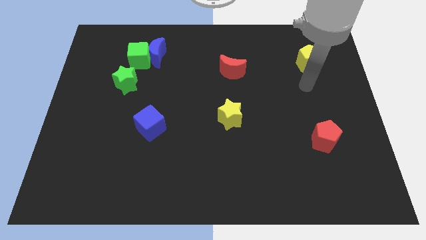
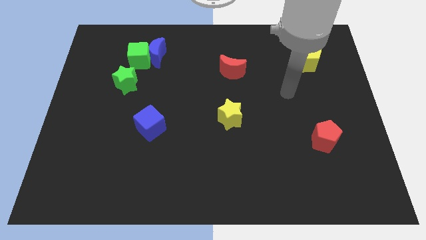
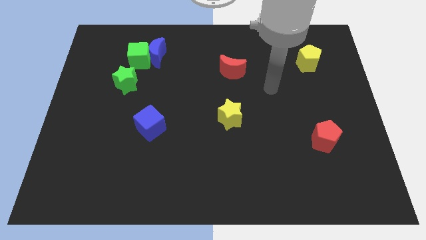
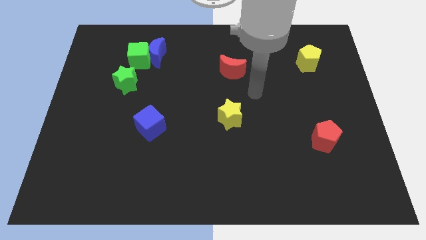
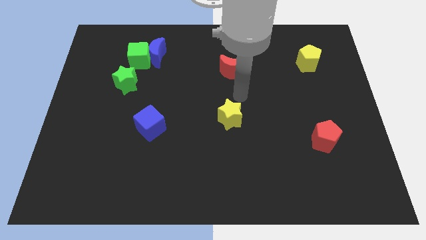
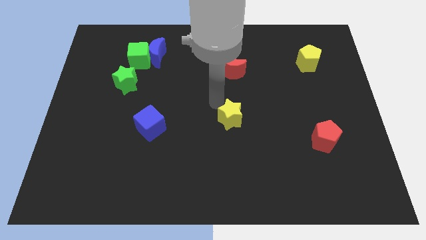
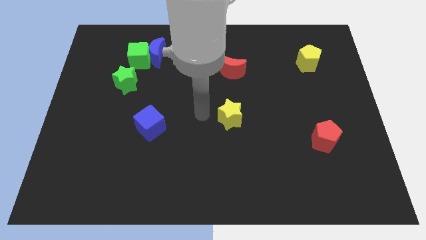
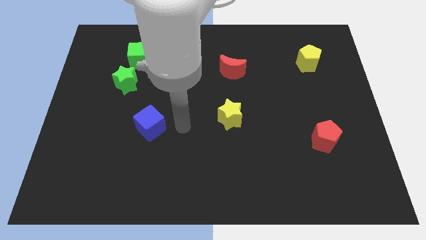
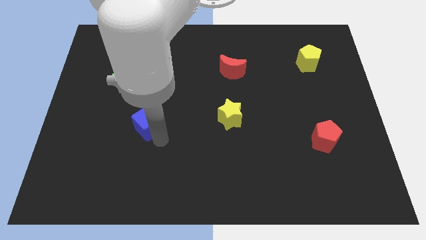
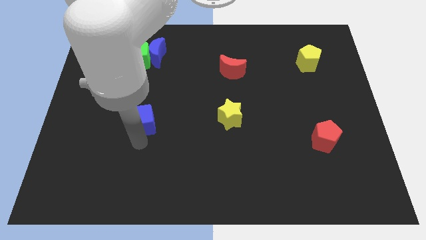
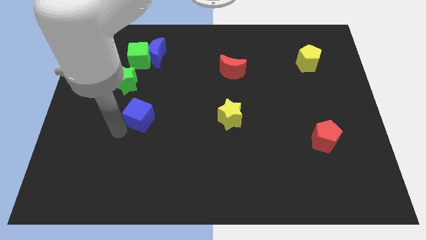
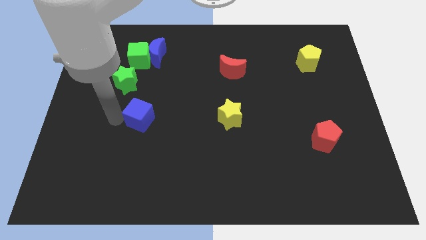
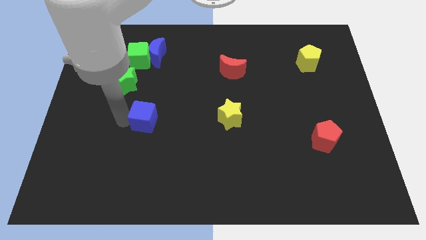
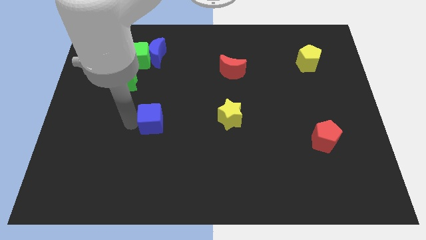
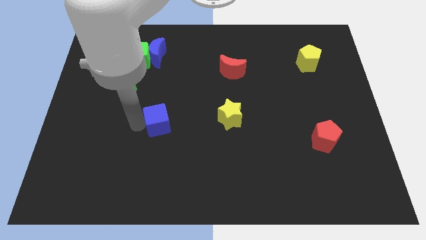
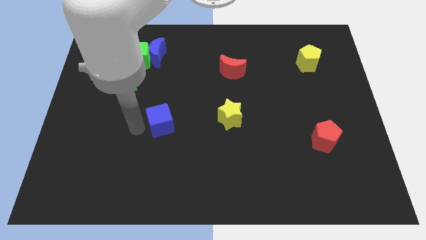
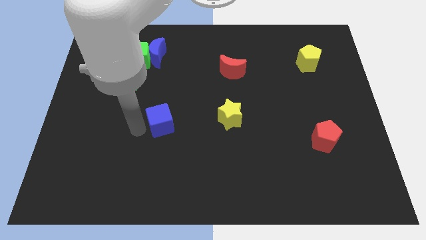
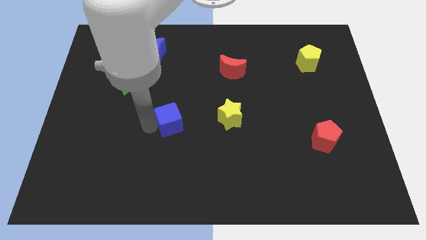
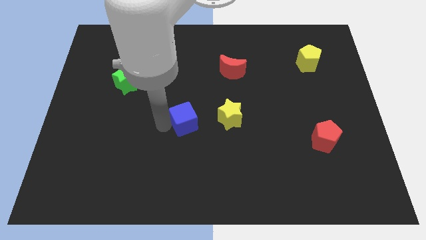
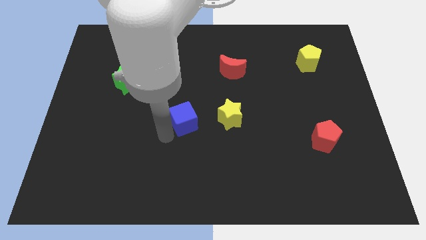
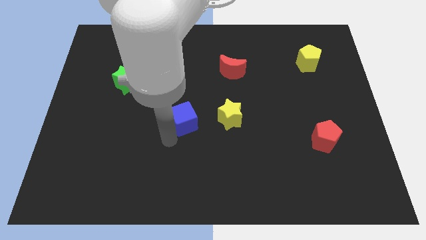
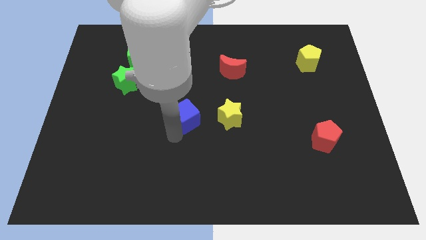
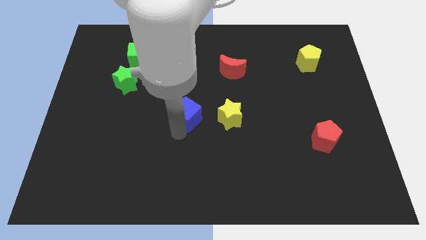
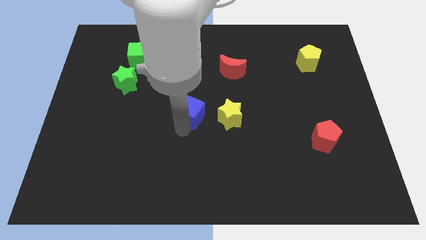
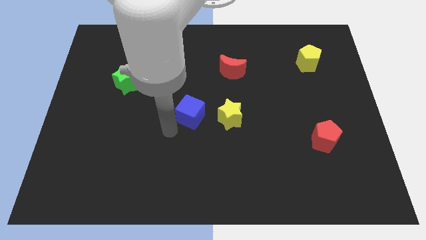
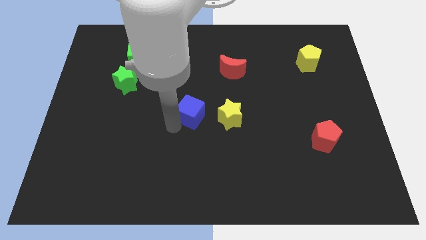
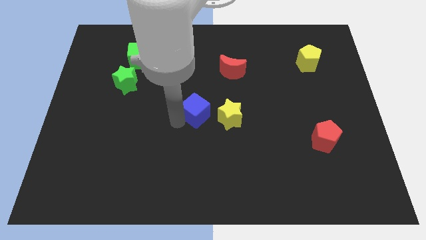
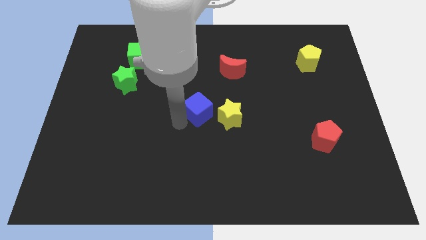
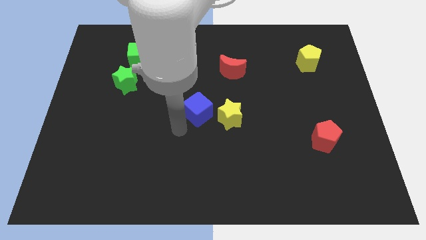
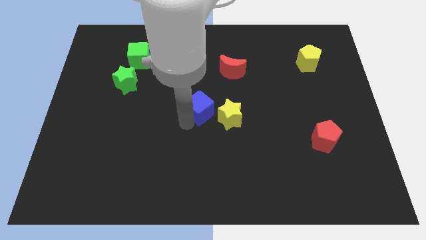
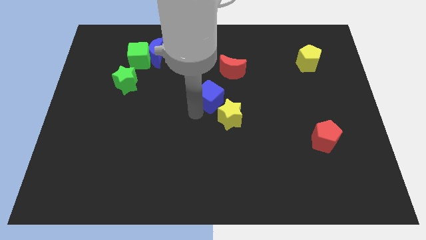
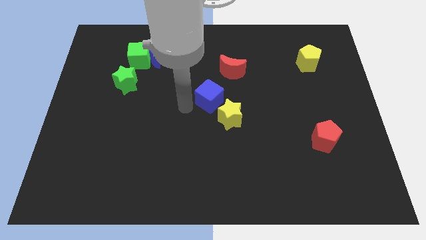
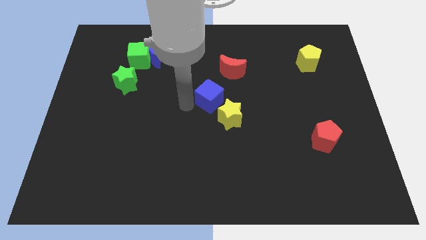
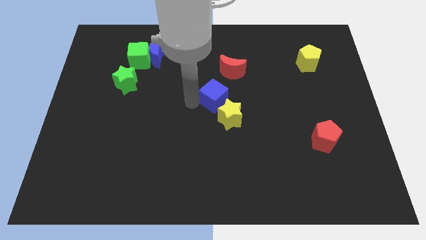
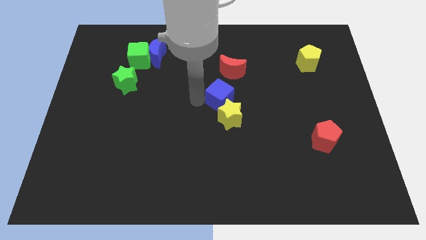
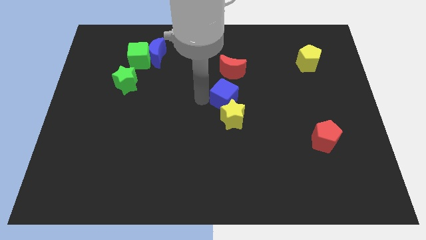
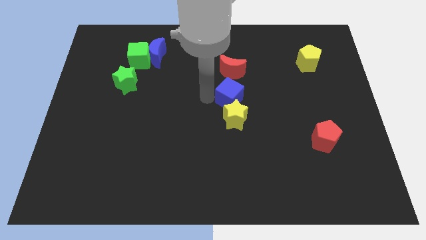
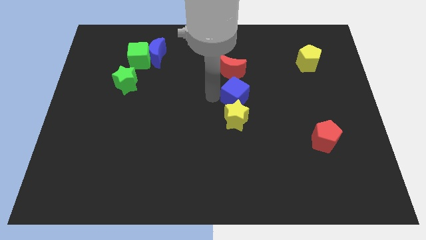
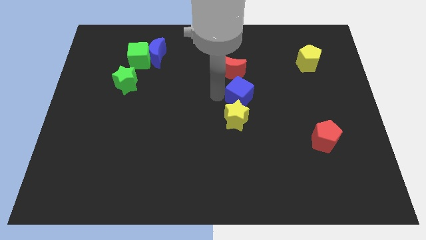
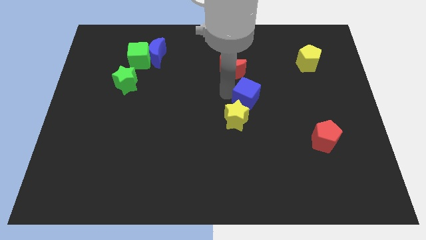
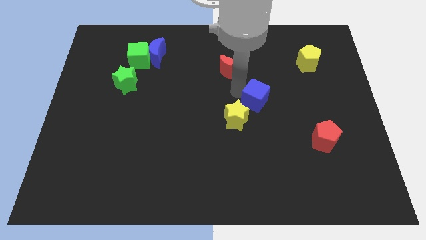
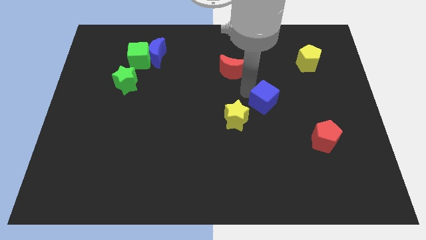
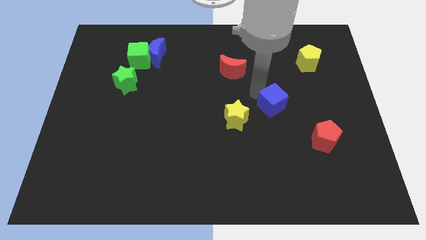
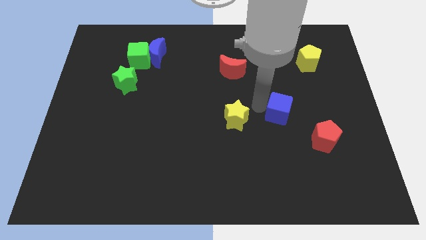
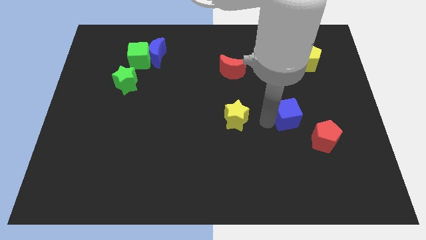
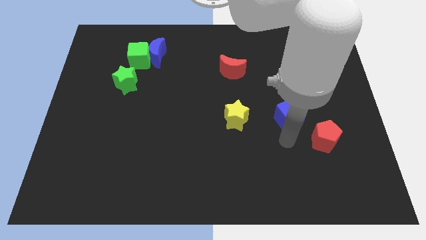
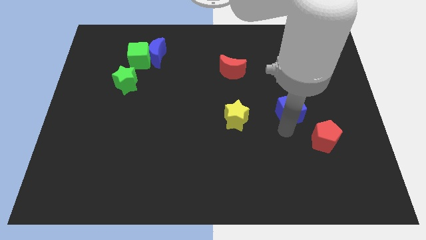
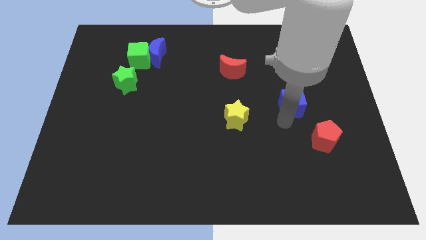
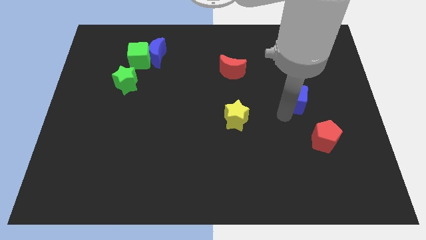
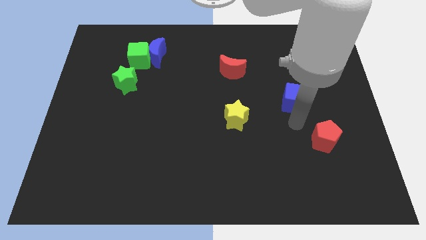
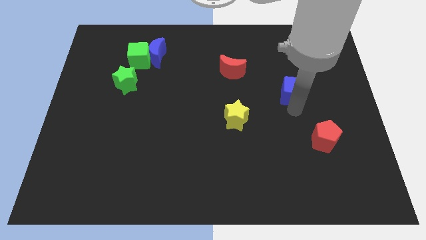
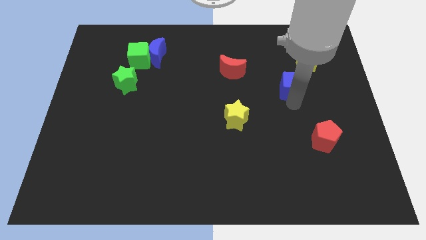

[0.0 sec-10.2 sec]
push the blue cube to the bottom left of the yellow pentagon

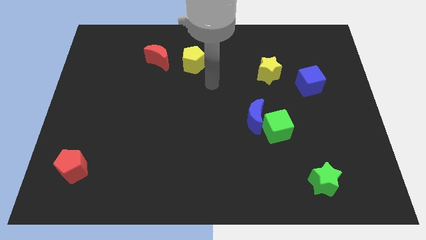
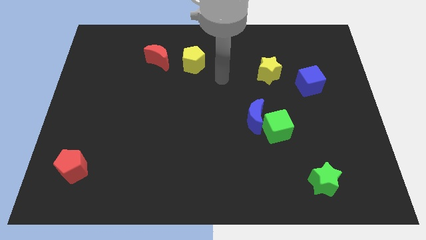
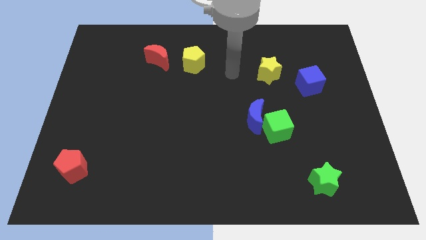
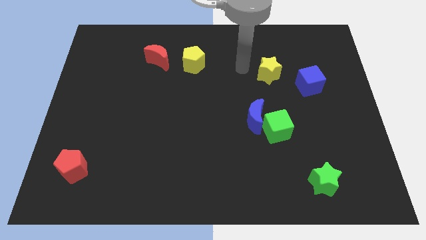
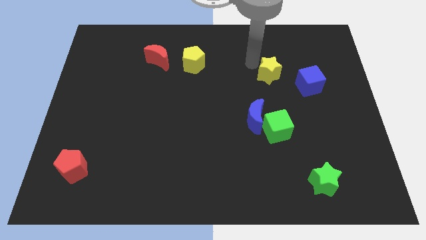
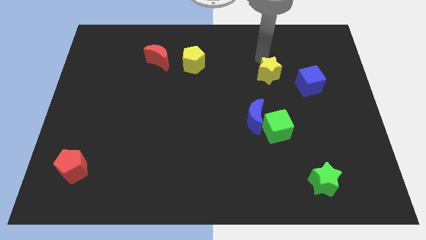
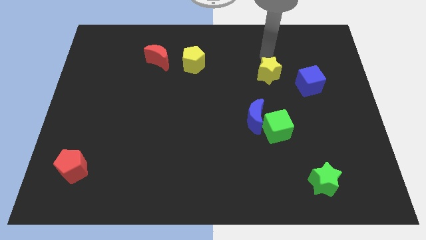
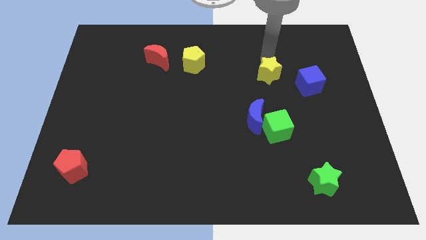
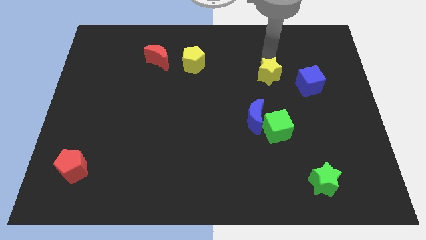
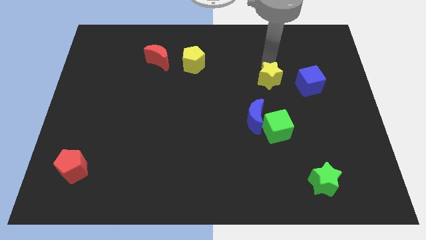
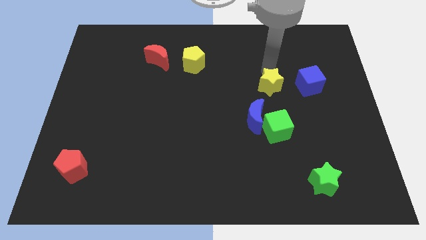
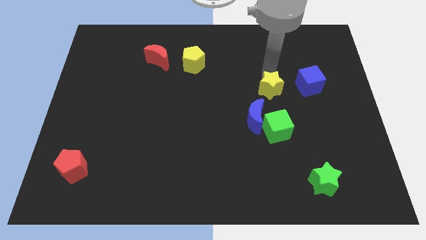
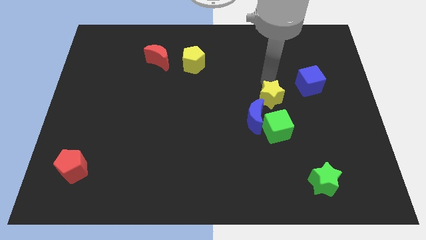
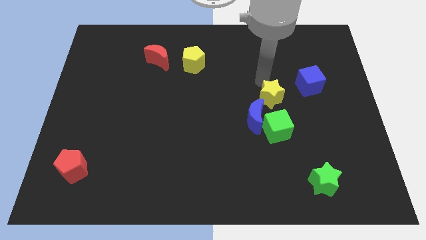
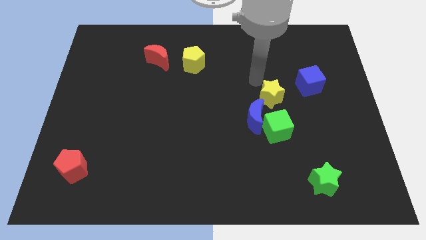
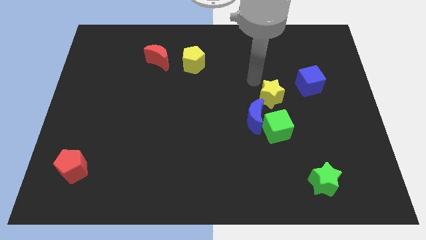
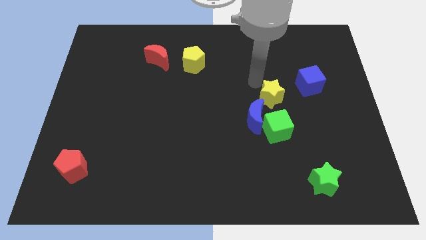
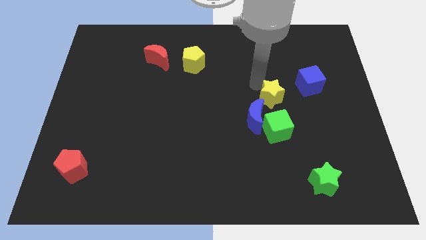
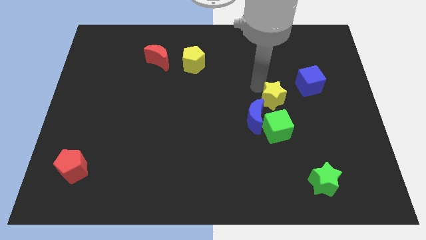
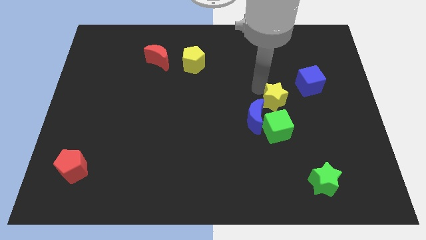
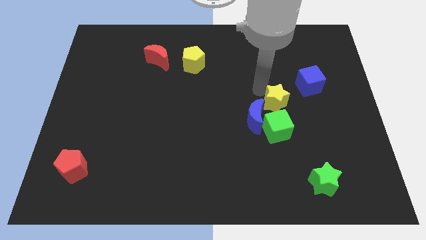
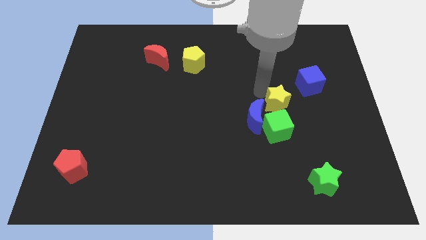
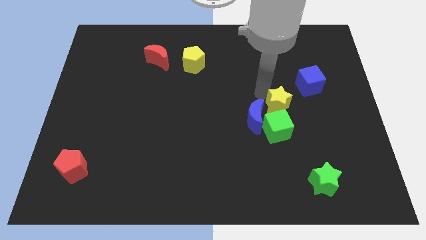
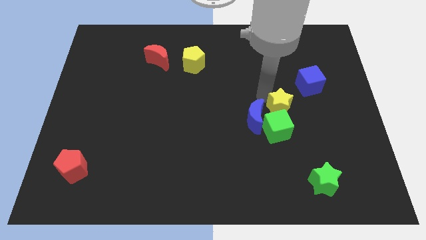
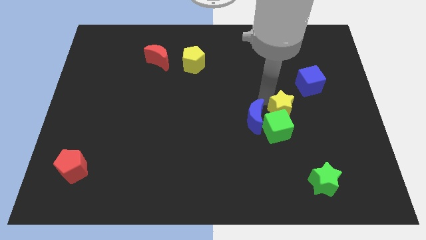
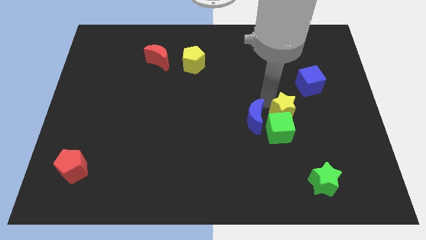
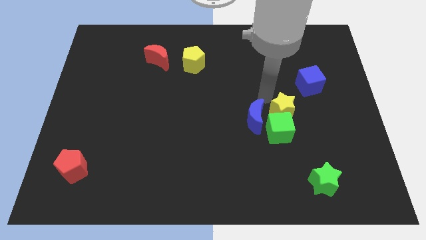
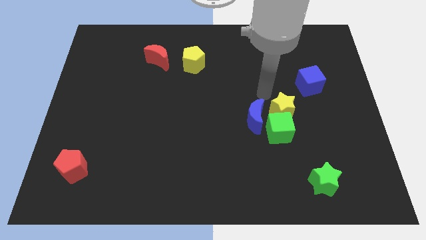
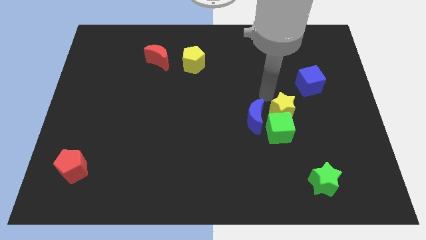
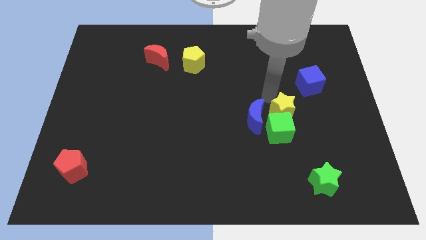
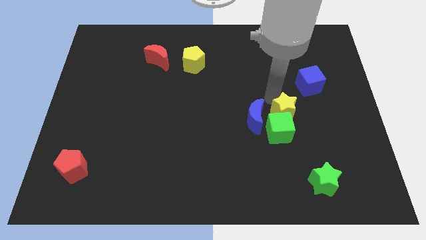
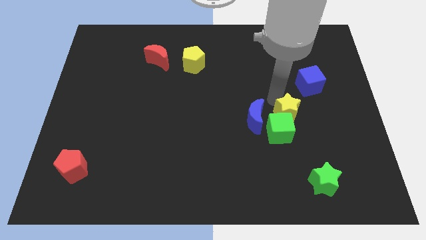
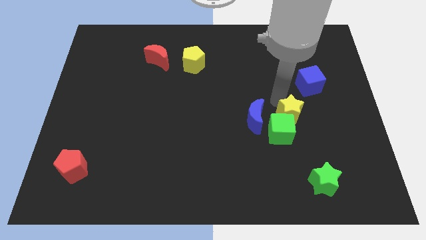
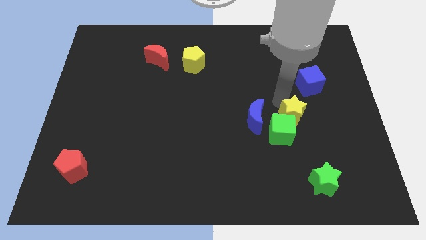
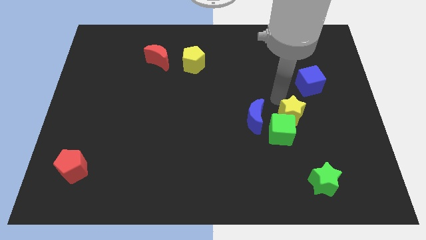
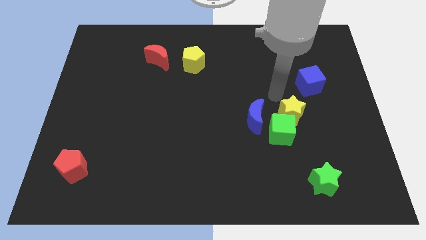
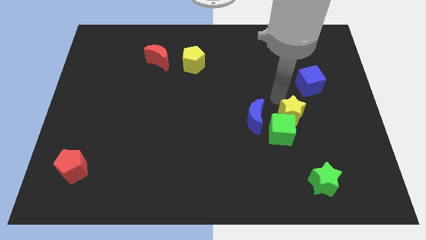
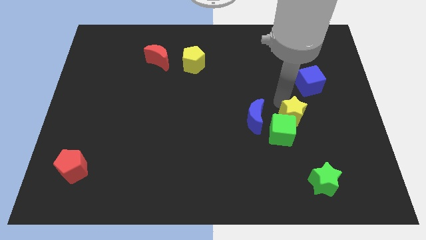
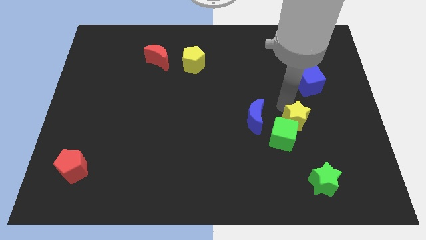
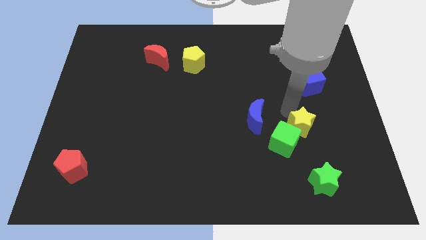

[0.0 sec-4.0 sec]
push the yellow star to the top side of the green star
